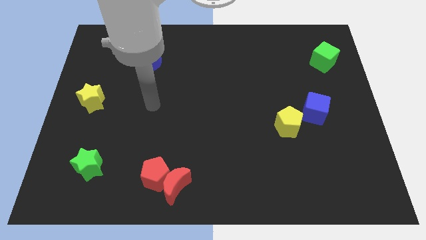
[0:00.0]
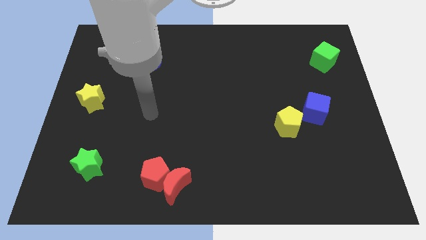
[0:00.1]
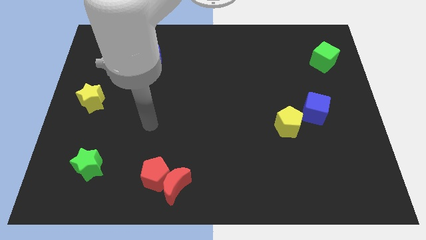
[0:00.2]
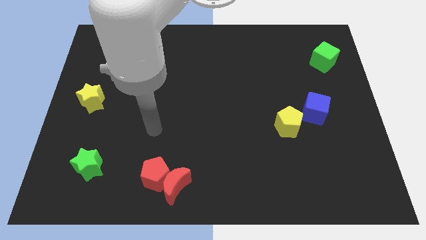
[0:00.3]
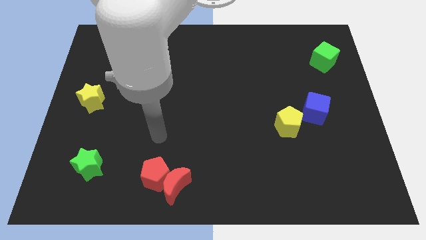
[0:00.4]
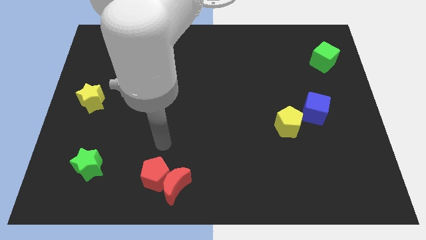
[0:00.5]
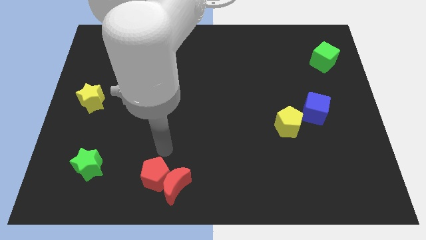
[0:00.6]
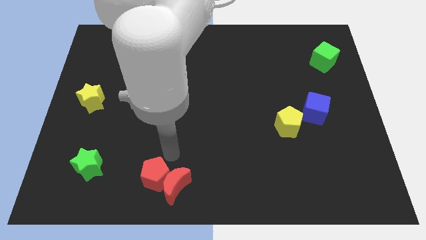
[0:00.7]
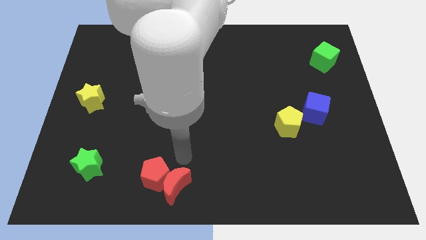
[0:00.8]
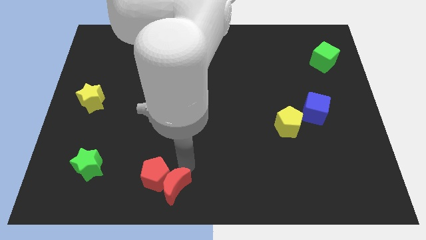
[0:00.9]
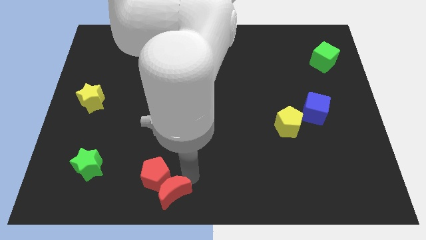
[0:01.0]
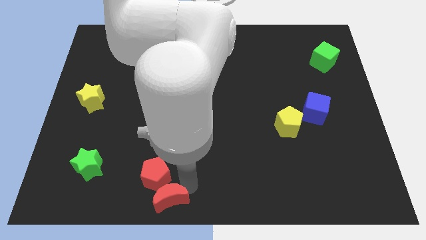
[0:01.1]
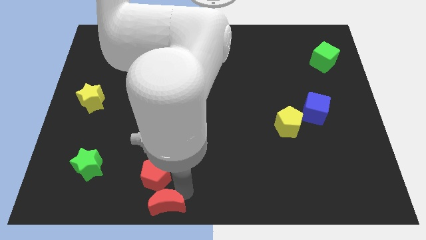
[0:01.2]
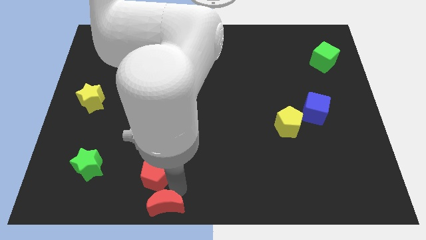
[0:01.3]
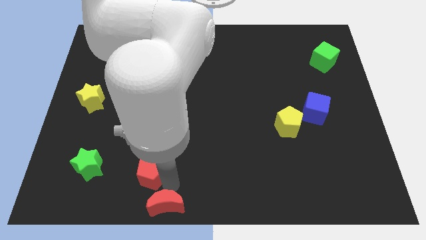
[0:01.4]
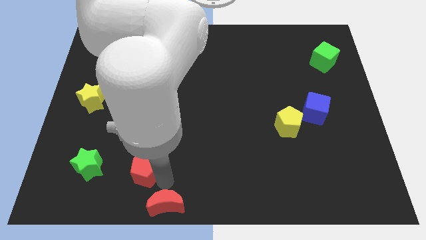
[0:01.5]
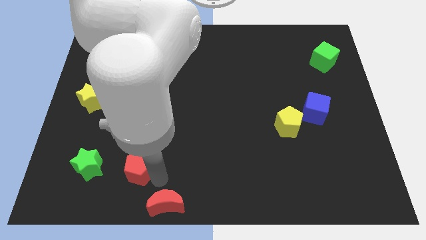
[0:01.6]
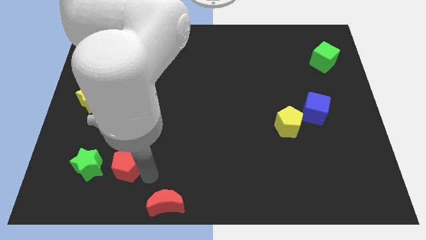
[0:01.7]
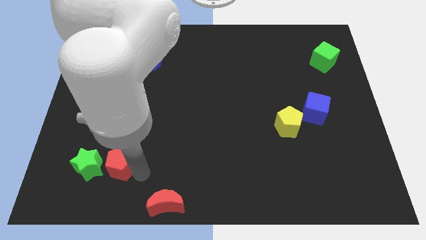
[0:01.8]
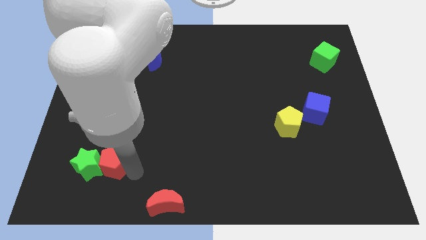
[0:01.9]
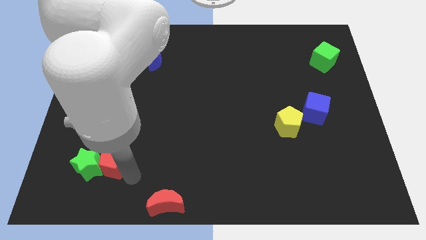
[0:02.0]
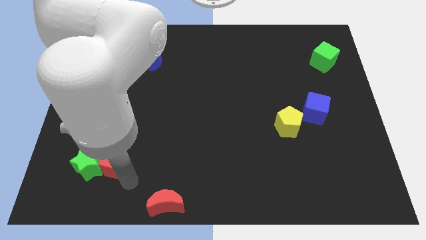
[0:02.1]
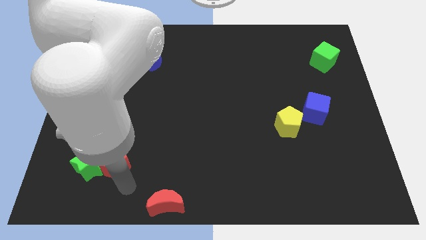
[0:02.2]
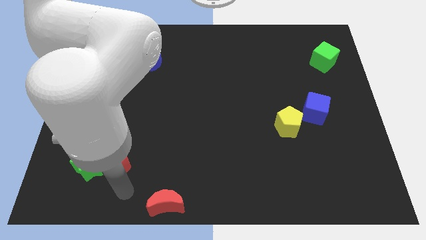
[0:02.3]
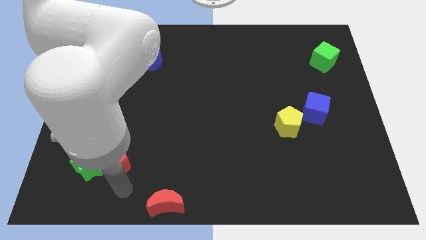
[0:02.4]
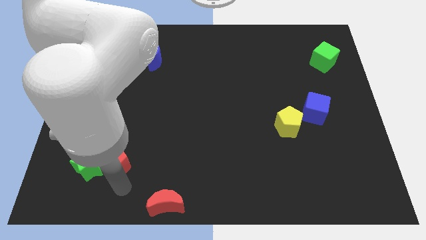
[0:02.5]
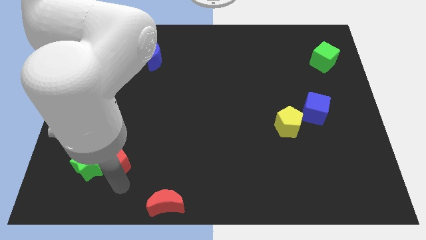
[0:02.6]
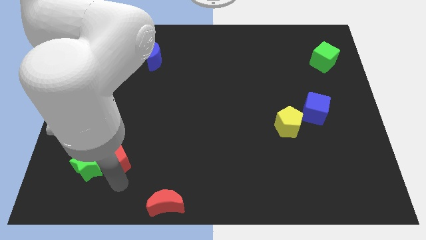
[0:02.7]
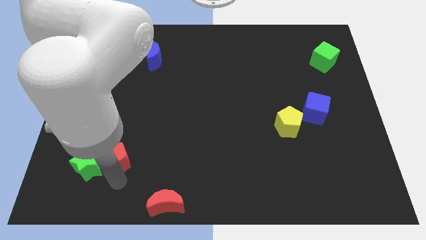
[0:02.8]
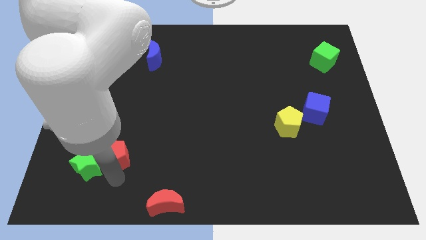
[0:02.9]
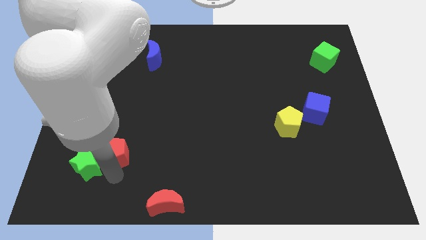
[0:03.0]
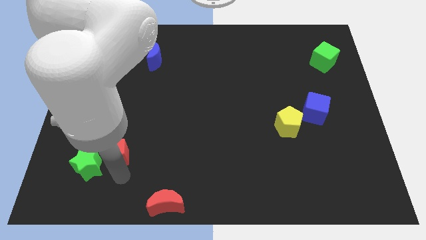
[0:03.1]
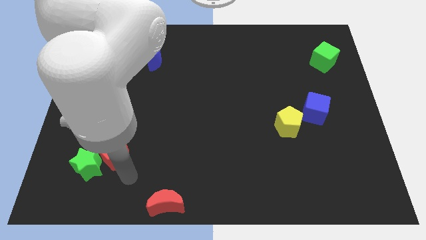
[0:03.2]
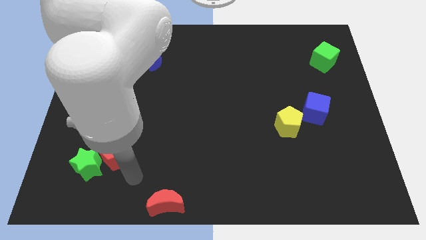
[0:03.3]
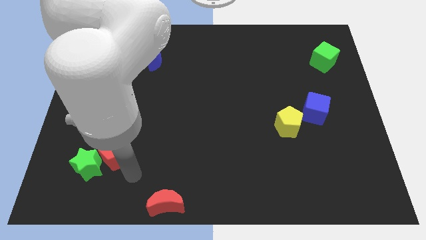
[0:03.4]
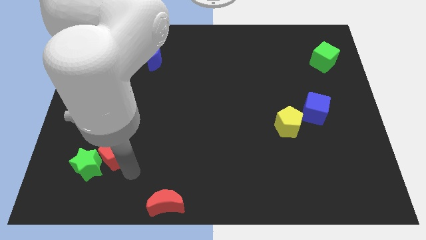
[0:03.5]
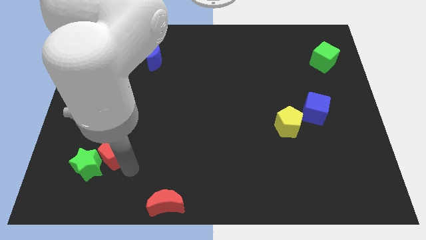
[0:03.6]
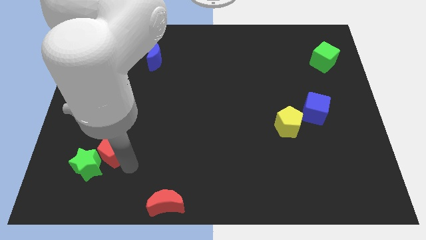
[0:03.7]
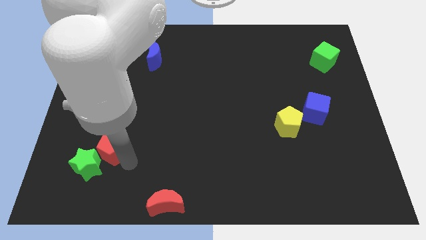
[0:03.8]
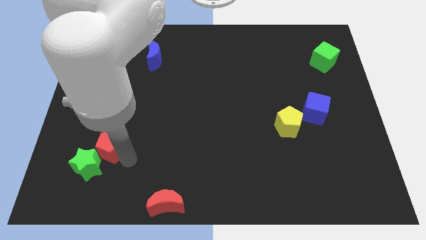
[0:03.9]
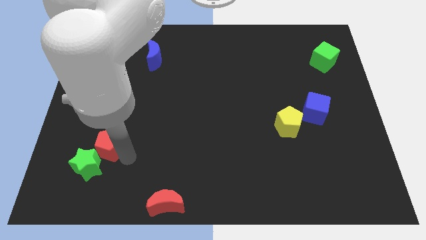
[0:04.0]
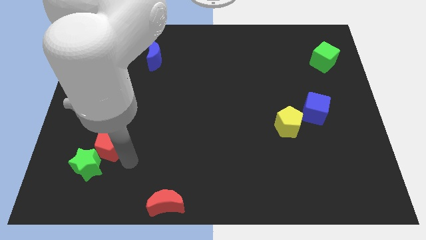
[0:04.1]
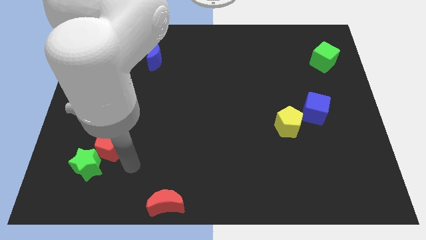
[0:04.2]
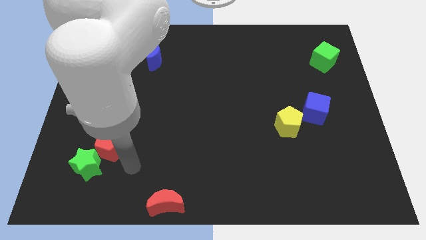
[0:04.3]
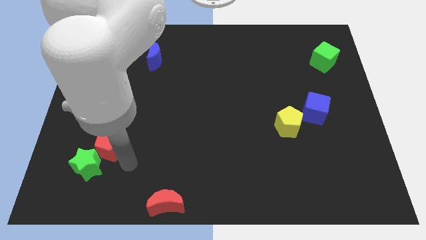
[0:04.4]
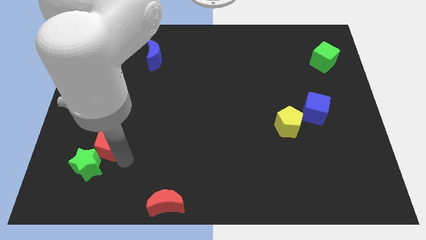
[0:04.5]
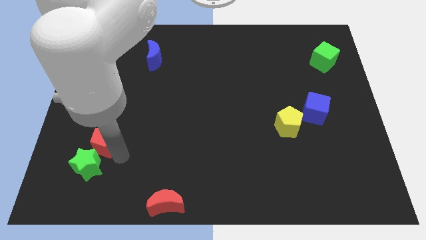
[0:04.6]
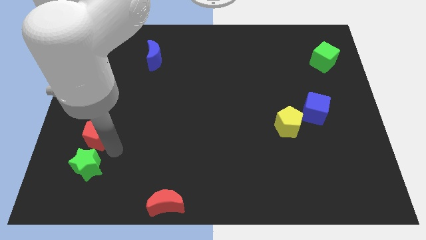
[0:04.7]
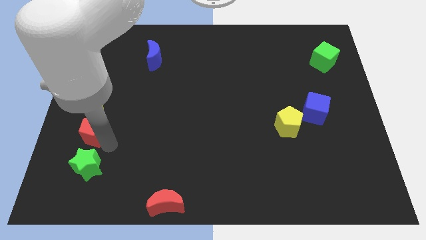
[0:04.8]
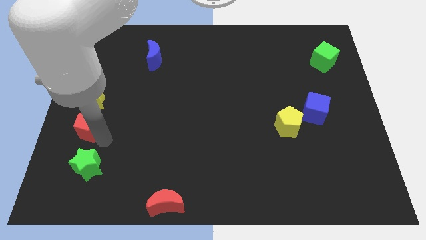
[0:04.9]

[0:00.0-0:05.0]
move the red pentagon to the center left

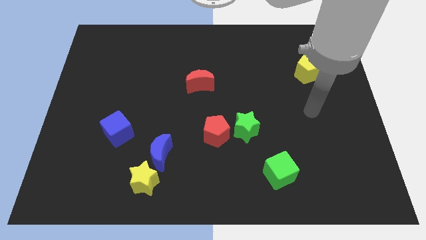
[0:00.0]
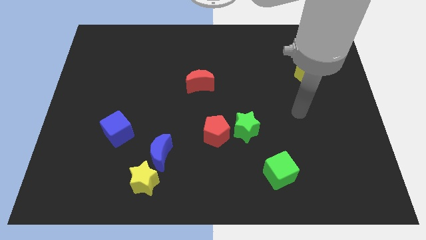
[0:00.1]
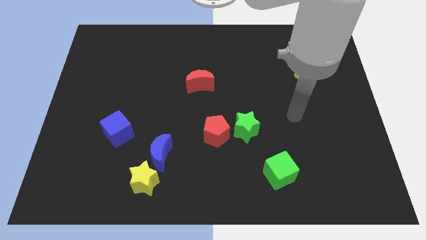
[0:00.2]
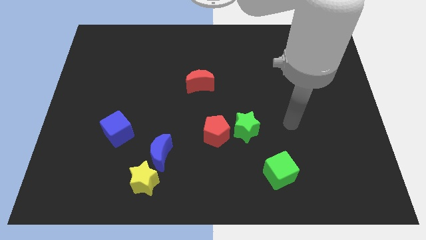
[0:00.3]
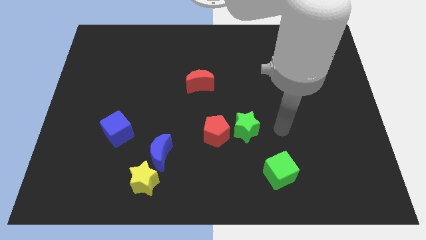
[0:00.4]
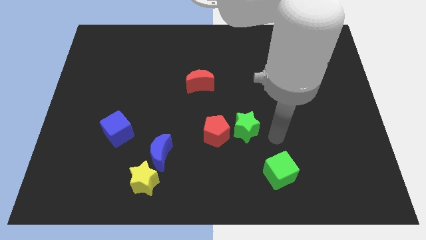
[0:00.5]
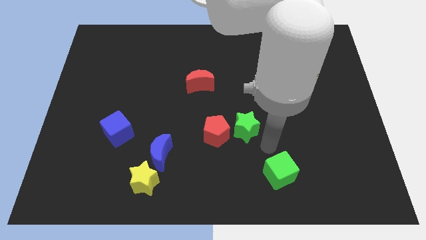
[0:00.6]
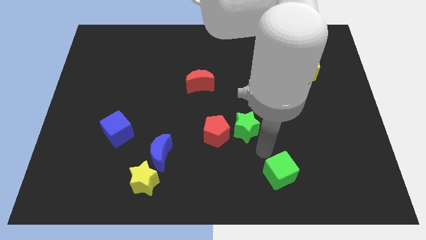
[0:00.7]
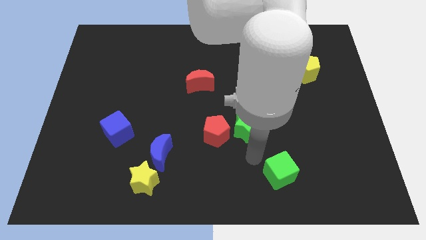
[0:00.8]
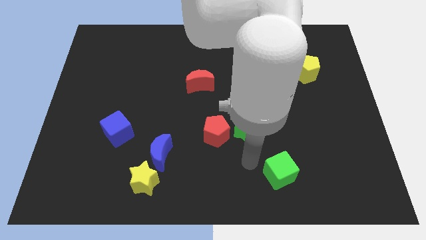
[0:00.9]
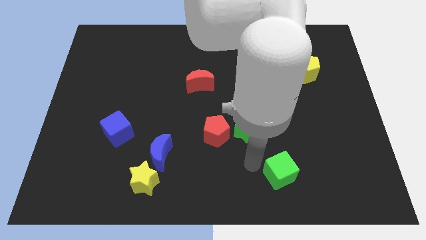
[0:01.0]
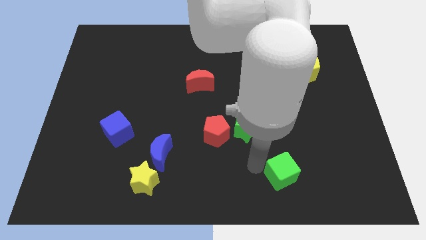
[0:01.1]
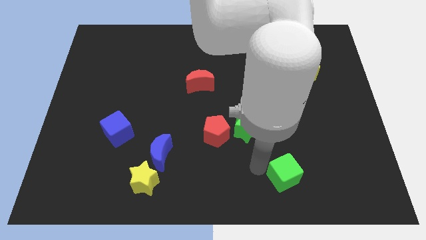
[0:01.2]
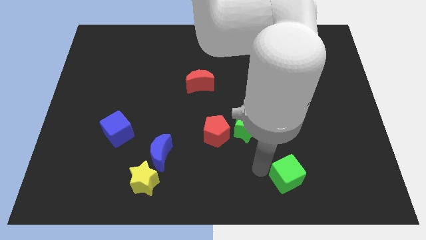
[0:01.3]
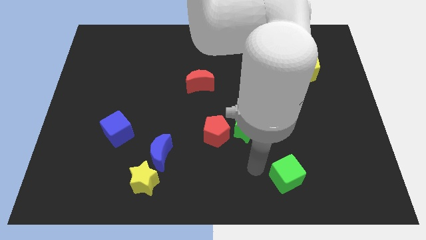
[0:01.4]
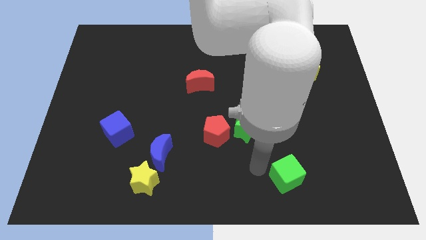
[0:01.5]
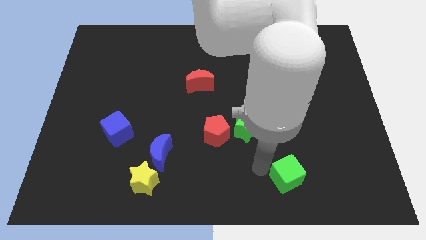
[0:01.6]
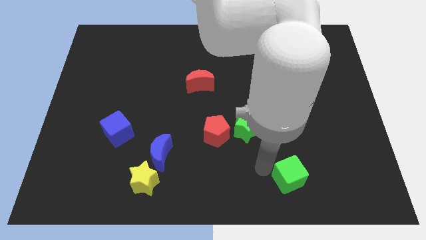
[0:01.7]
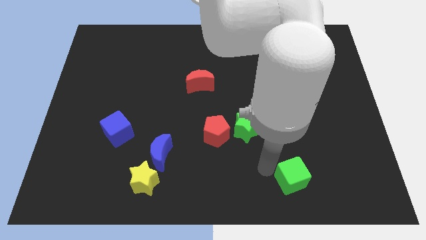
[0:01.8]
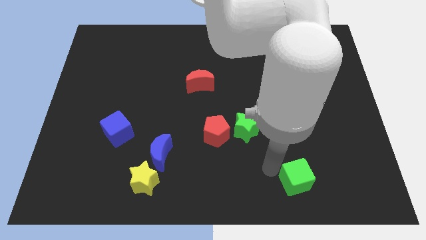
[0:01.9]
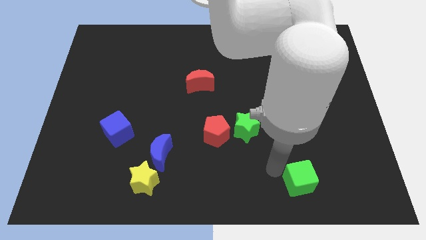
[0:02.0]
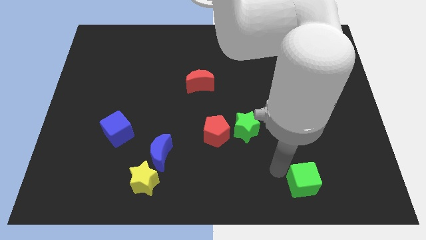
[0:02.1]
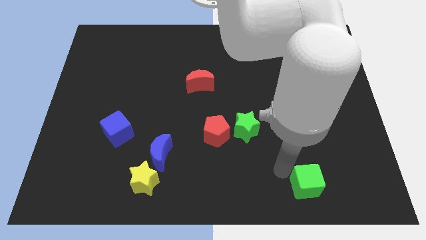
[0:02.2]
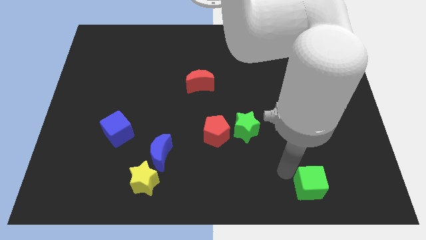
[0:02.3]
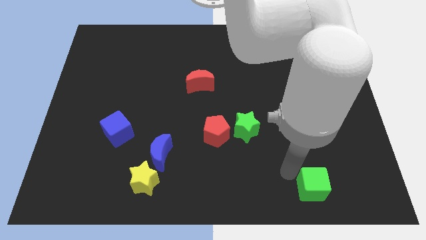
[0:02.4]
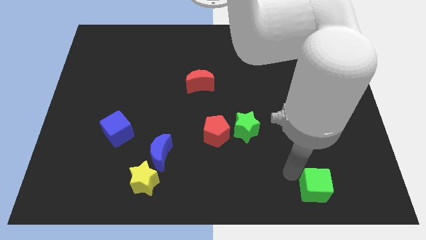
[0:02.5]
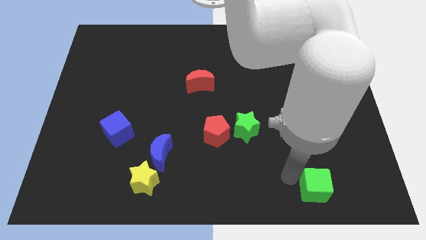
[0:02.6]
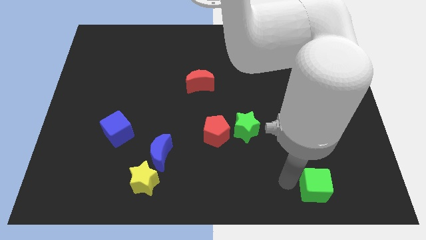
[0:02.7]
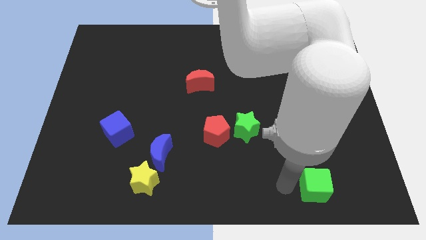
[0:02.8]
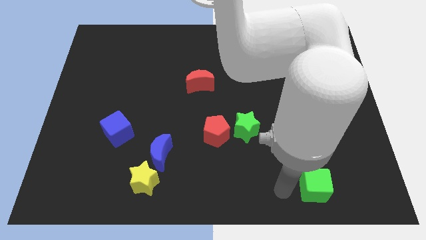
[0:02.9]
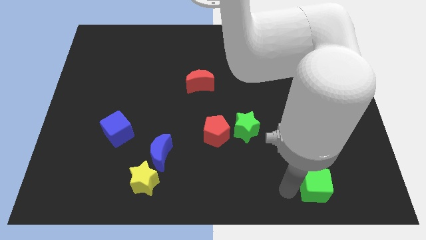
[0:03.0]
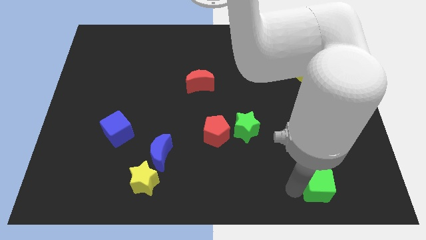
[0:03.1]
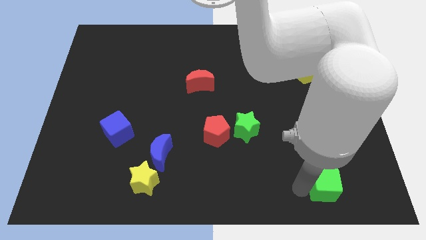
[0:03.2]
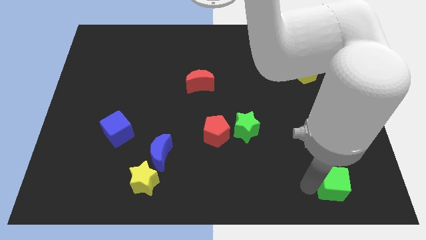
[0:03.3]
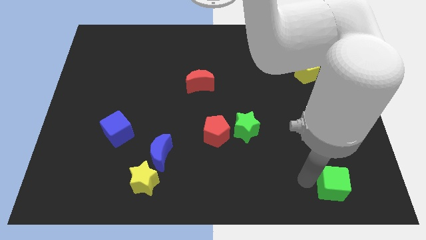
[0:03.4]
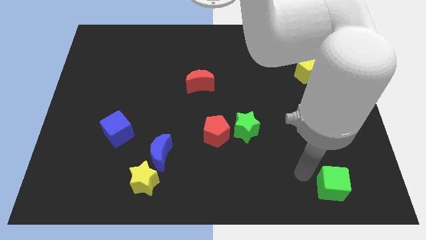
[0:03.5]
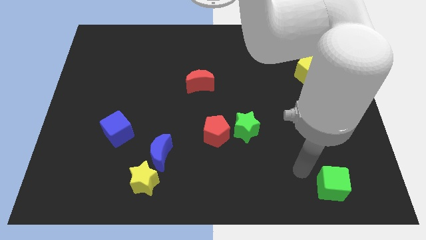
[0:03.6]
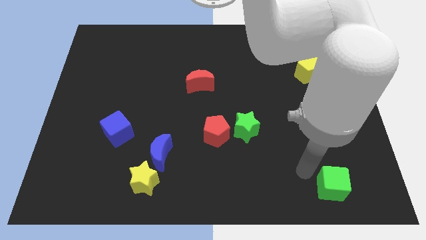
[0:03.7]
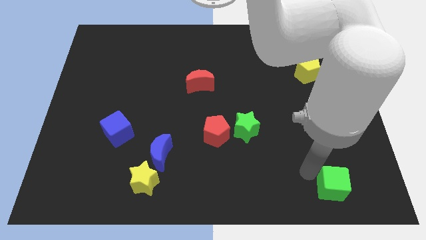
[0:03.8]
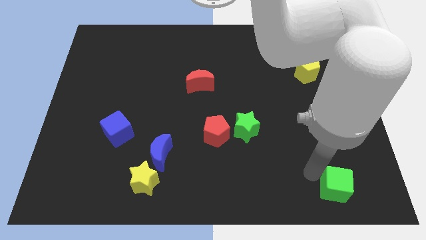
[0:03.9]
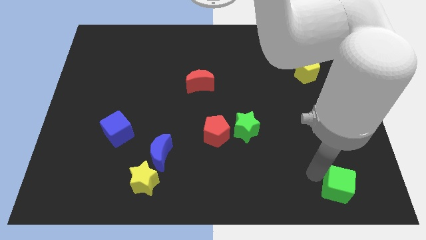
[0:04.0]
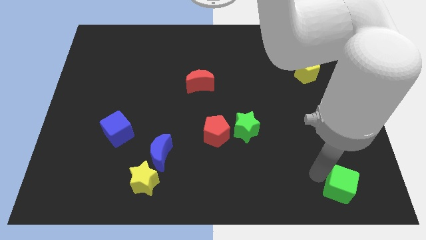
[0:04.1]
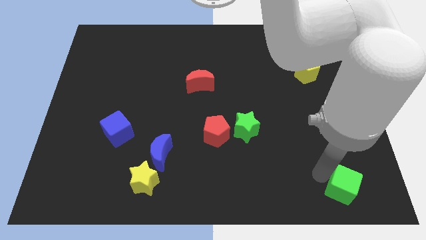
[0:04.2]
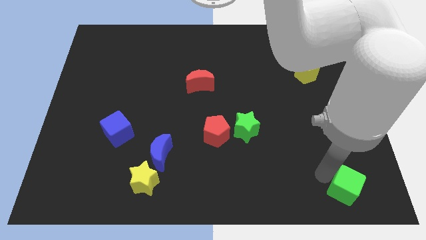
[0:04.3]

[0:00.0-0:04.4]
slide the green cube to the bottom right
